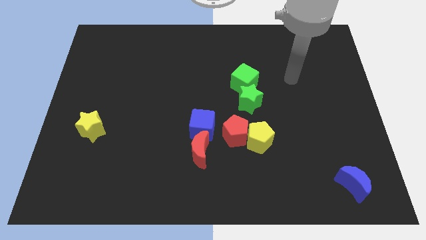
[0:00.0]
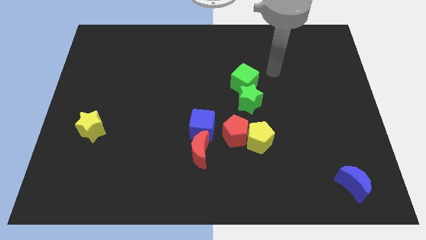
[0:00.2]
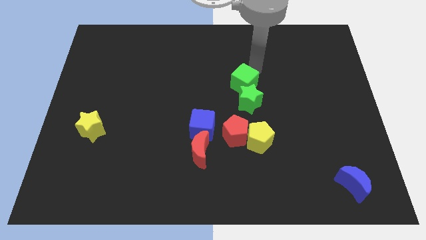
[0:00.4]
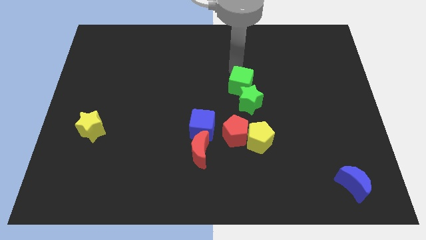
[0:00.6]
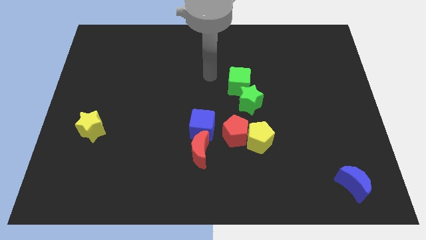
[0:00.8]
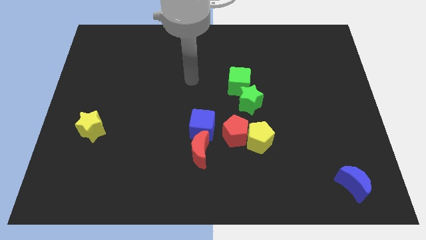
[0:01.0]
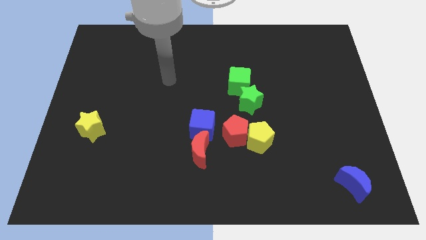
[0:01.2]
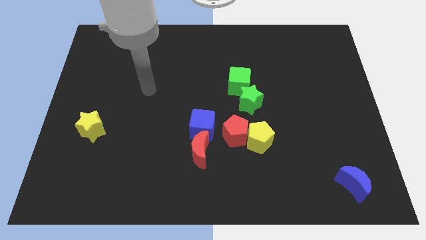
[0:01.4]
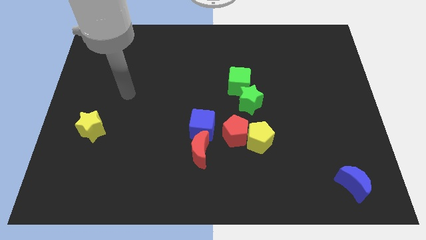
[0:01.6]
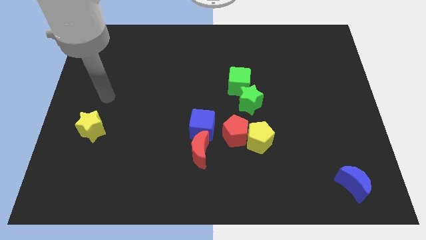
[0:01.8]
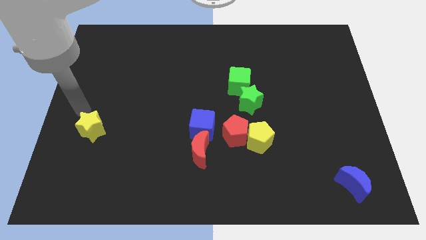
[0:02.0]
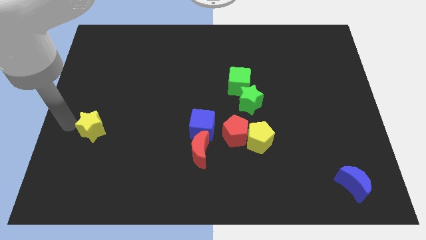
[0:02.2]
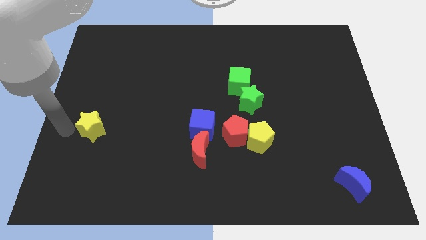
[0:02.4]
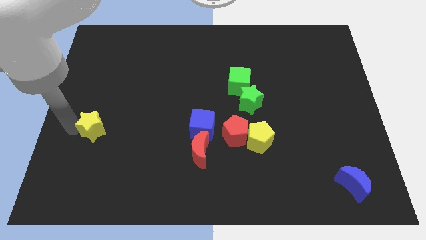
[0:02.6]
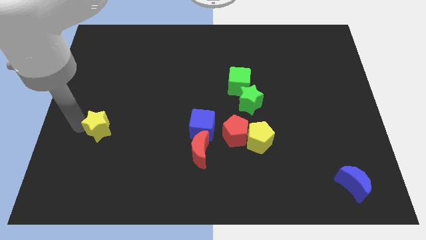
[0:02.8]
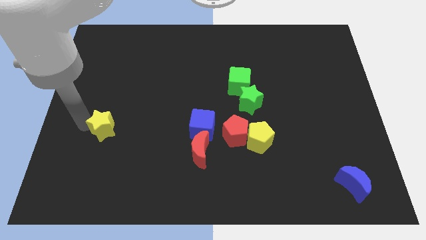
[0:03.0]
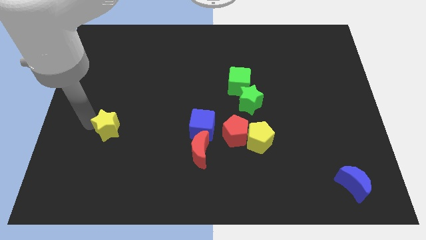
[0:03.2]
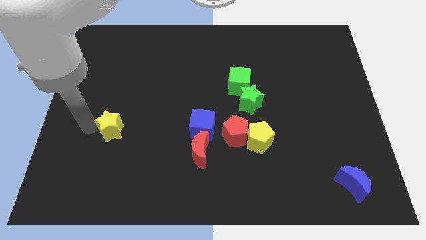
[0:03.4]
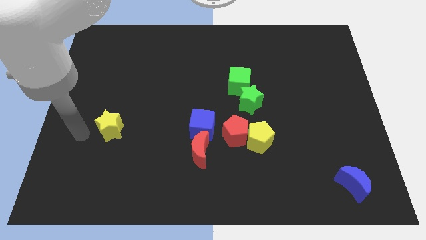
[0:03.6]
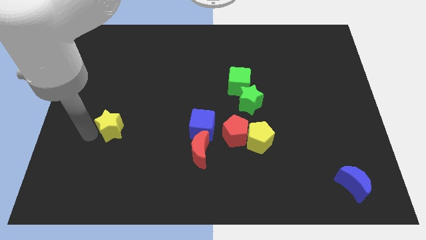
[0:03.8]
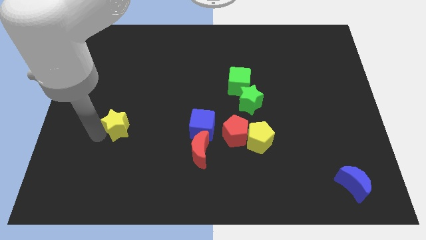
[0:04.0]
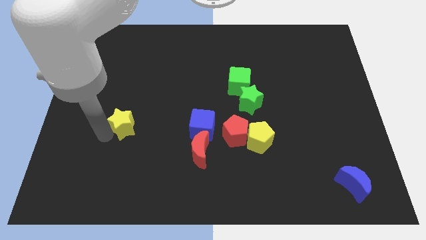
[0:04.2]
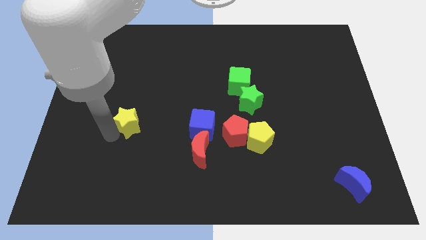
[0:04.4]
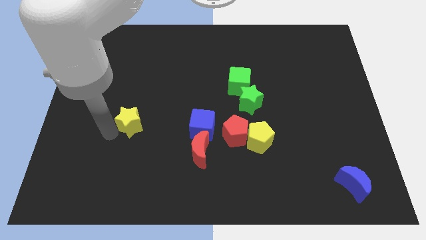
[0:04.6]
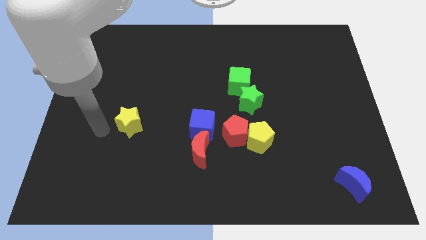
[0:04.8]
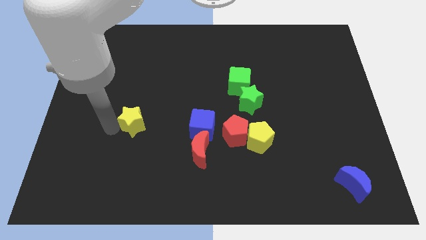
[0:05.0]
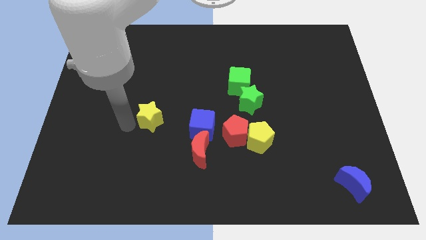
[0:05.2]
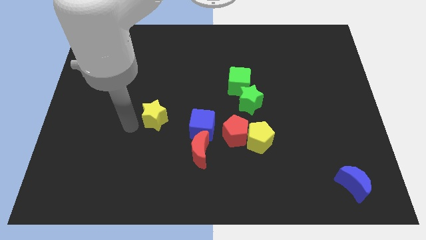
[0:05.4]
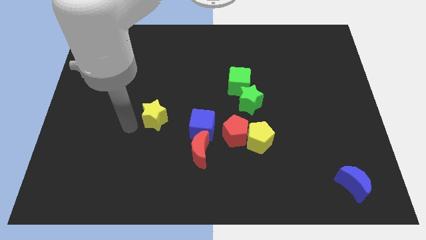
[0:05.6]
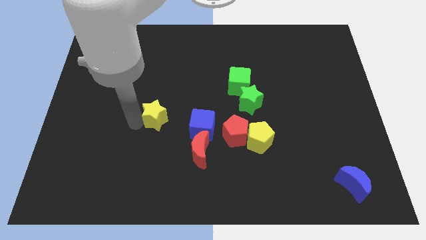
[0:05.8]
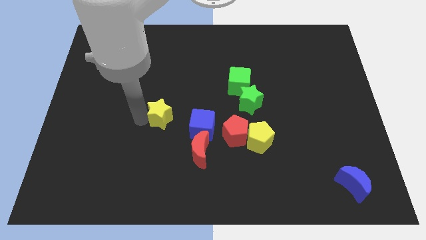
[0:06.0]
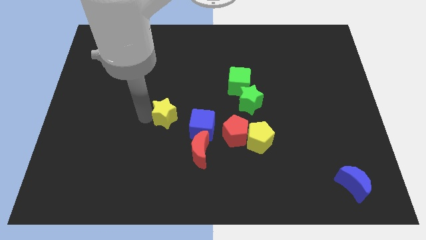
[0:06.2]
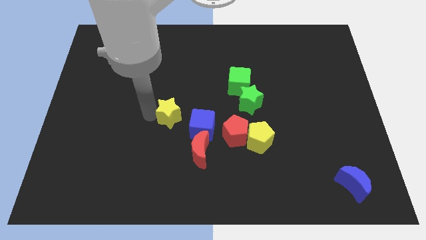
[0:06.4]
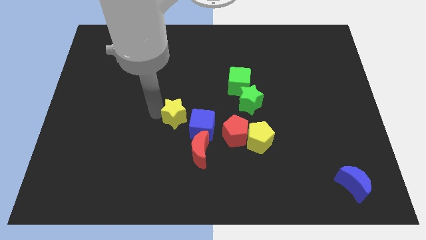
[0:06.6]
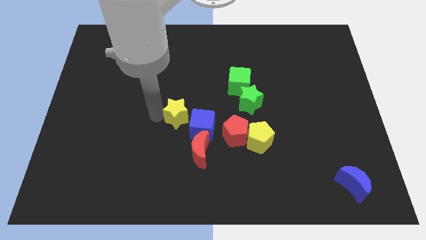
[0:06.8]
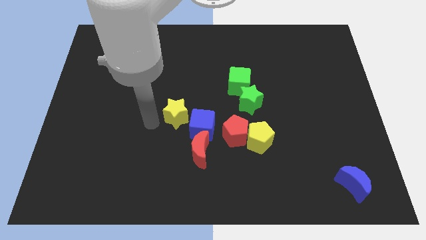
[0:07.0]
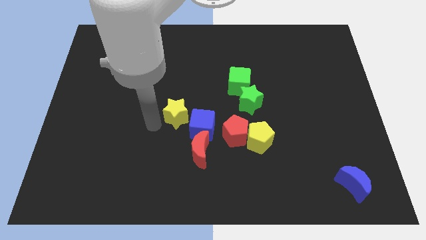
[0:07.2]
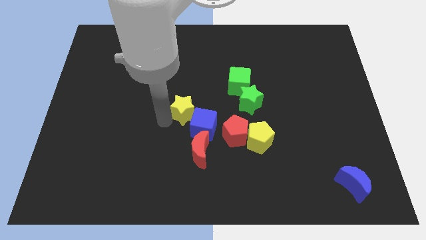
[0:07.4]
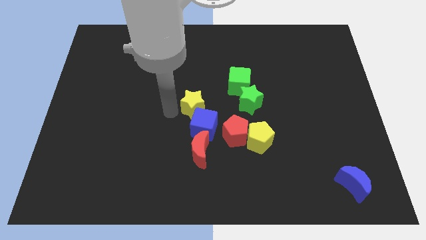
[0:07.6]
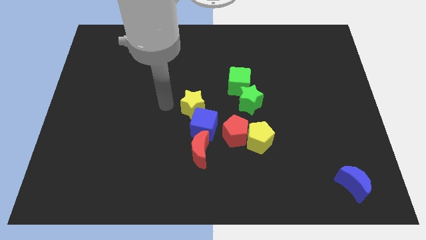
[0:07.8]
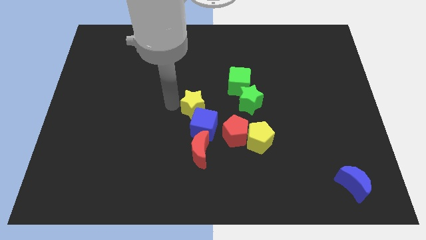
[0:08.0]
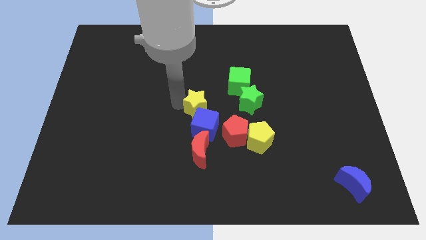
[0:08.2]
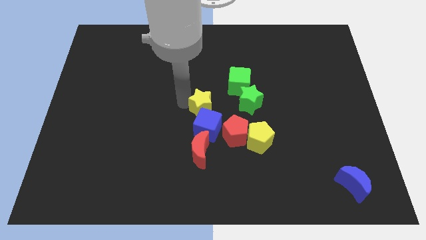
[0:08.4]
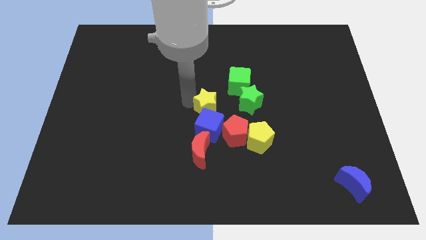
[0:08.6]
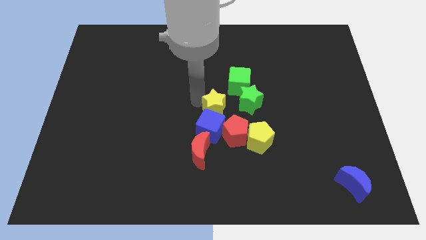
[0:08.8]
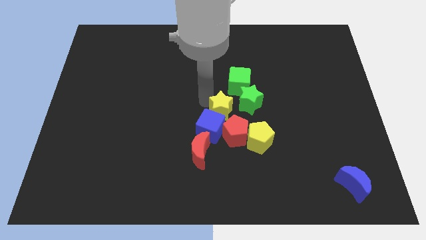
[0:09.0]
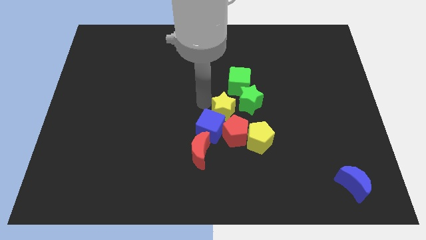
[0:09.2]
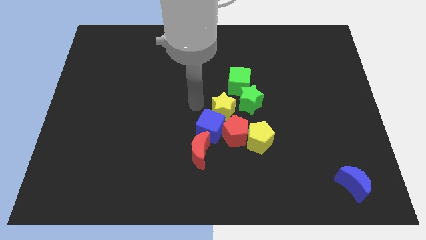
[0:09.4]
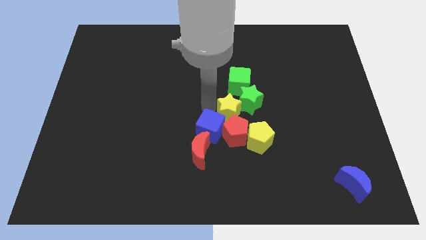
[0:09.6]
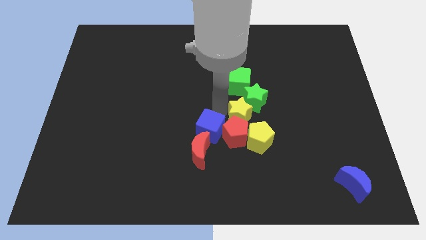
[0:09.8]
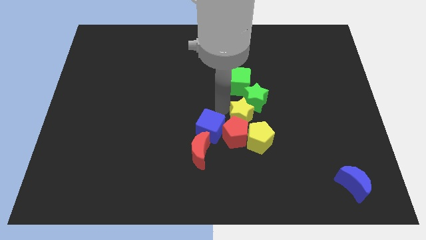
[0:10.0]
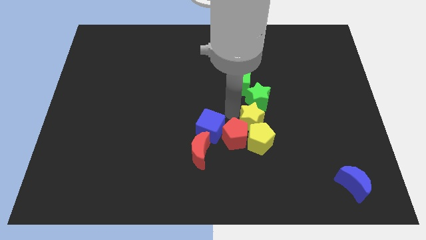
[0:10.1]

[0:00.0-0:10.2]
move the yellow star to the right side of the red pentagon

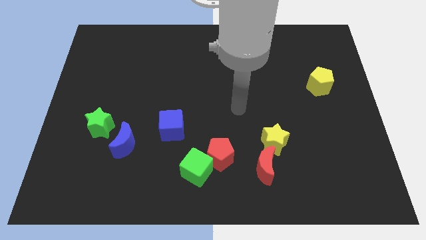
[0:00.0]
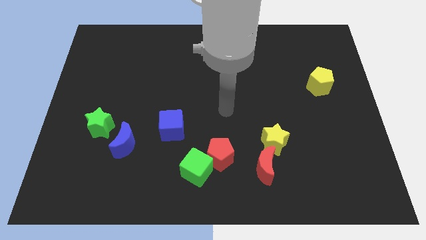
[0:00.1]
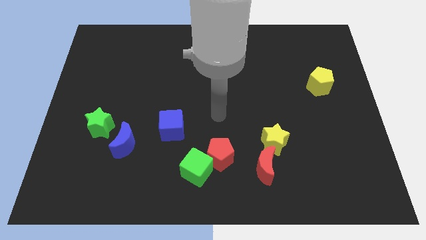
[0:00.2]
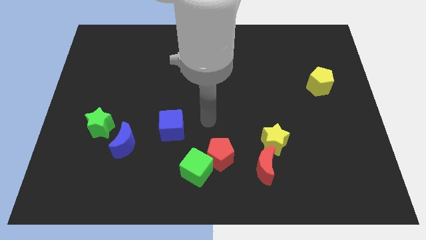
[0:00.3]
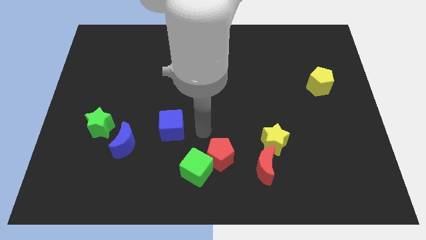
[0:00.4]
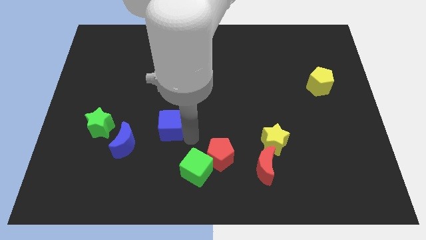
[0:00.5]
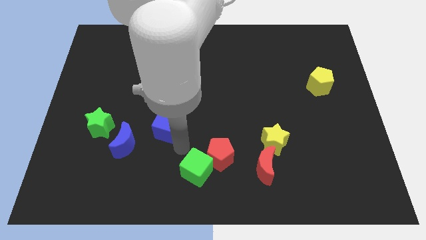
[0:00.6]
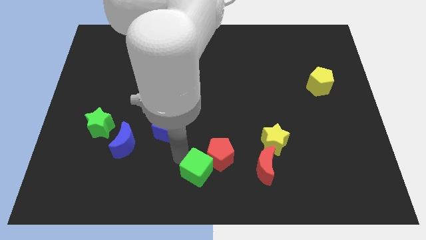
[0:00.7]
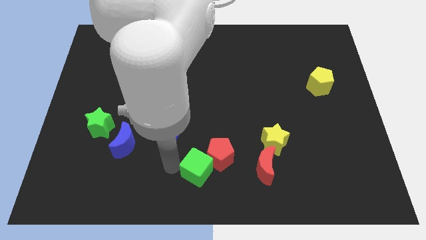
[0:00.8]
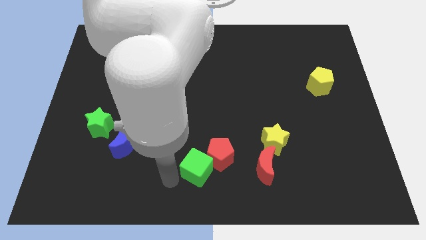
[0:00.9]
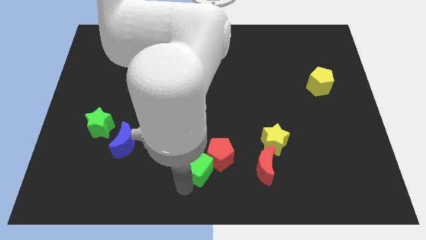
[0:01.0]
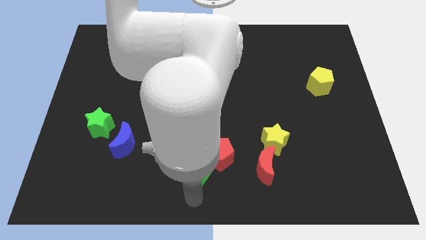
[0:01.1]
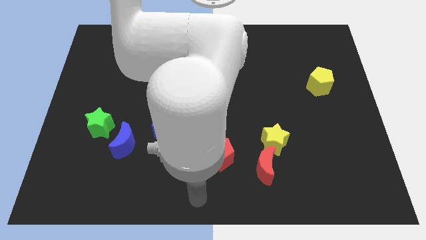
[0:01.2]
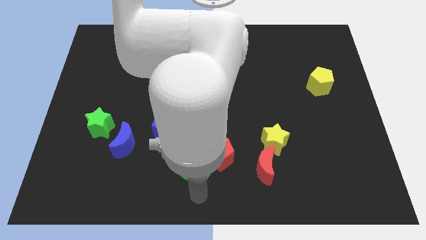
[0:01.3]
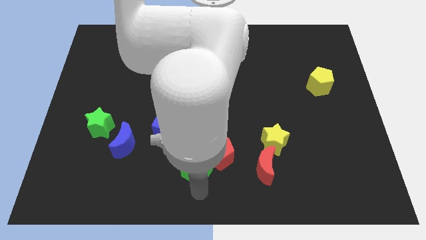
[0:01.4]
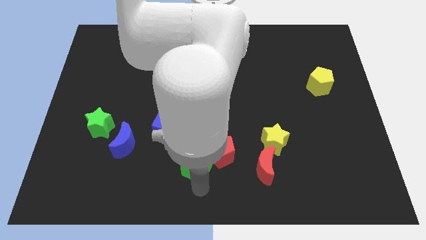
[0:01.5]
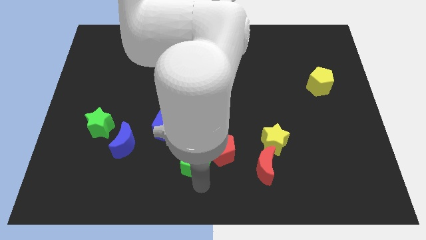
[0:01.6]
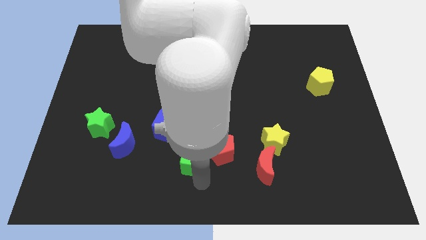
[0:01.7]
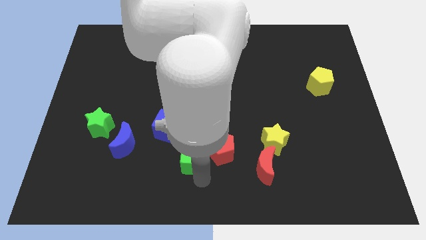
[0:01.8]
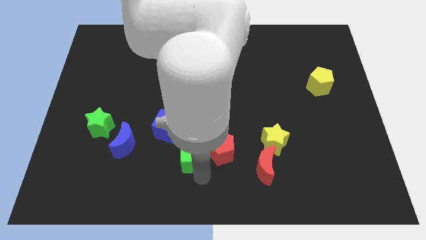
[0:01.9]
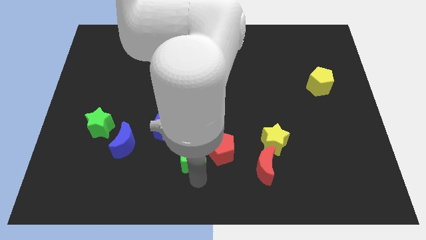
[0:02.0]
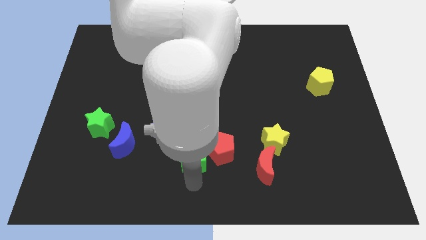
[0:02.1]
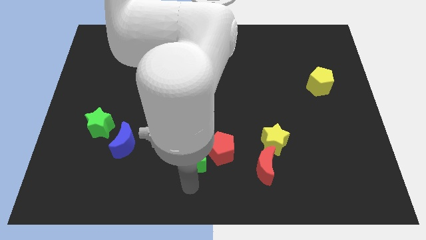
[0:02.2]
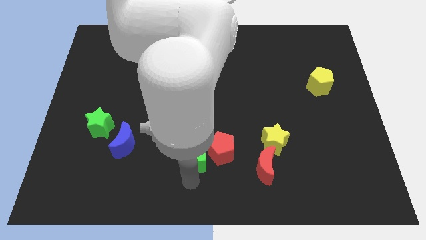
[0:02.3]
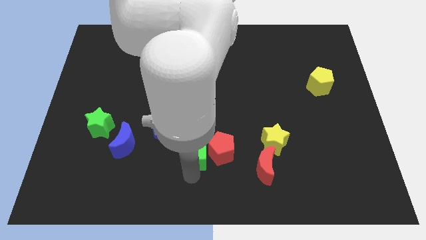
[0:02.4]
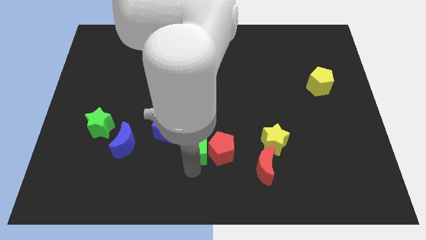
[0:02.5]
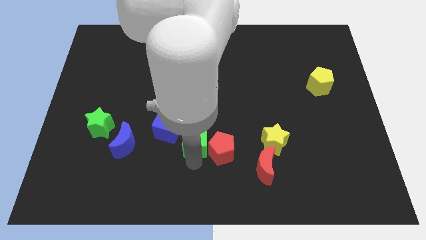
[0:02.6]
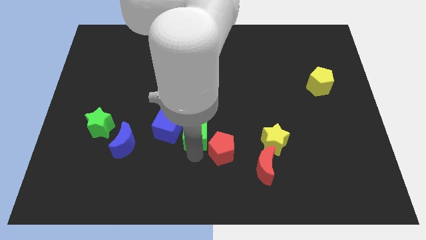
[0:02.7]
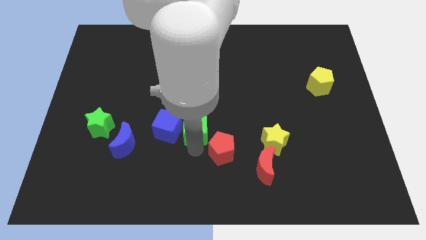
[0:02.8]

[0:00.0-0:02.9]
move the green cube to the top right side of the blue cube
